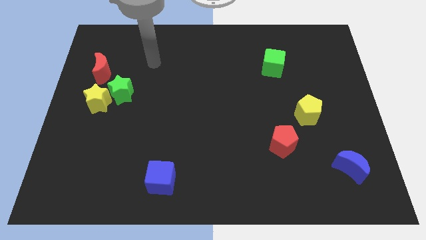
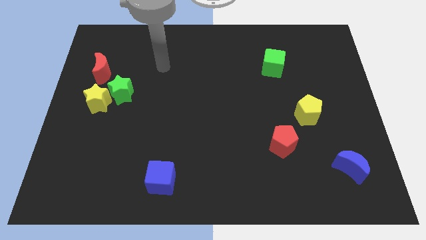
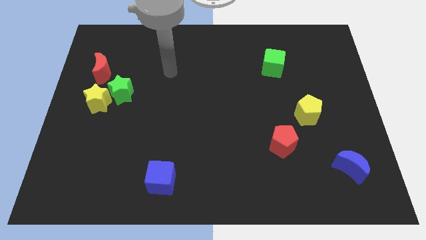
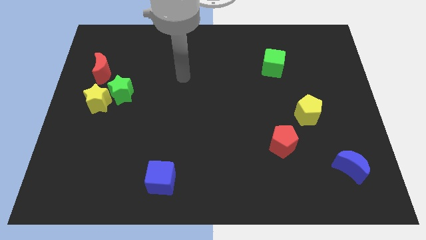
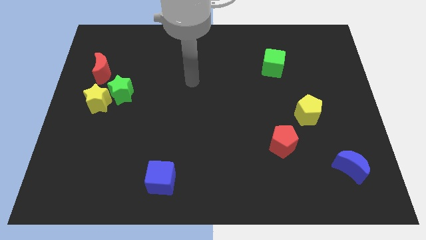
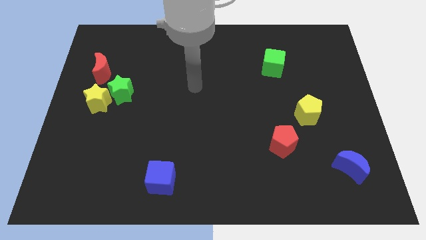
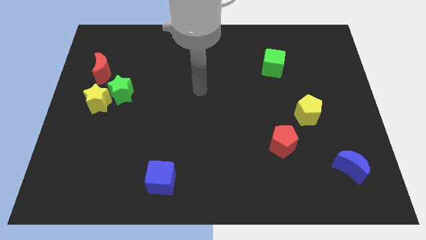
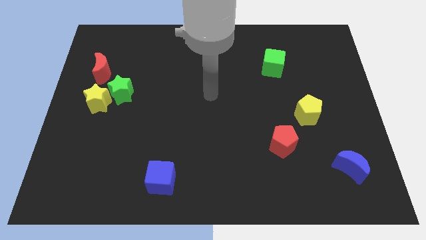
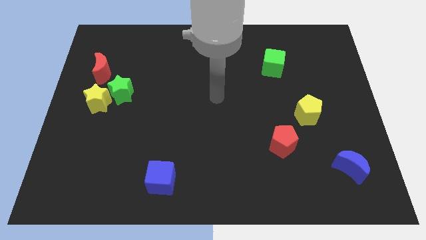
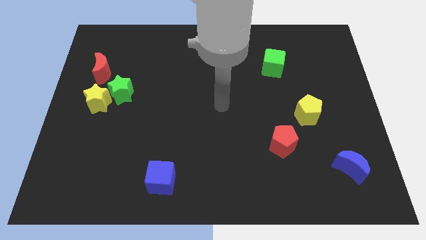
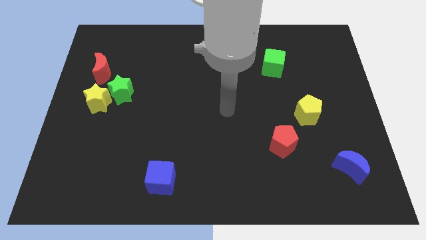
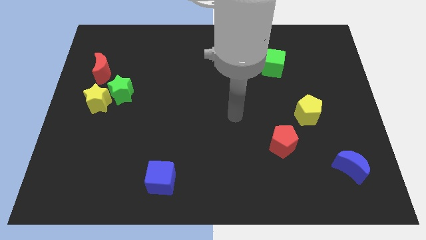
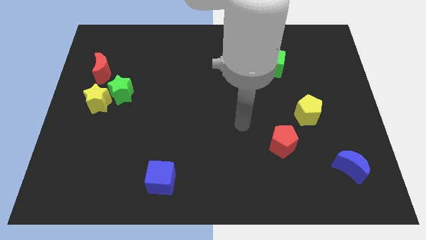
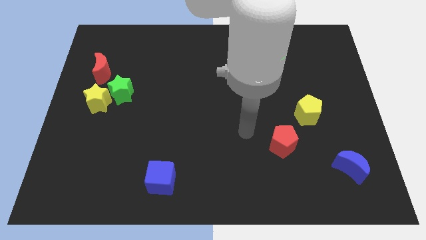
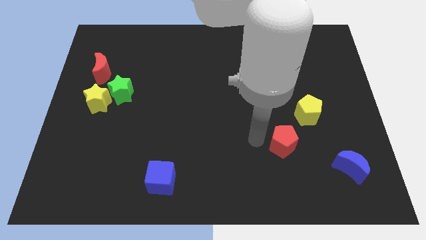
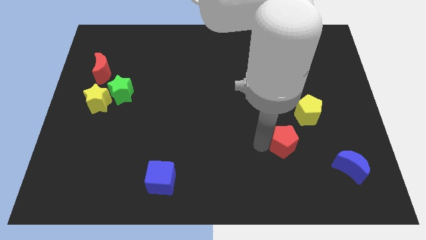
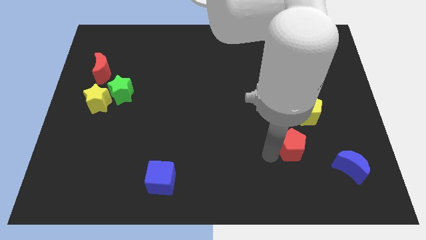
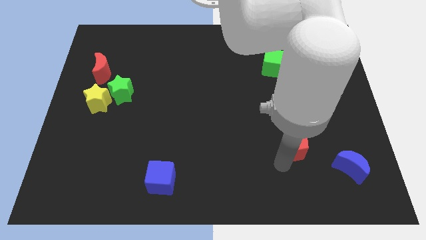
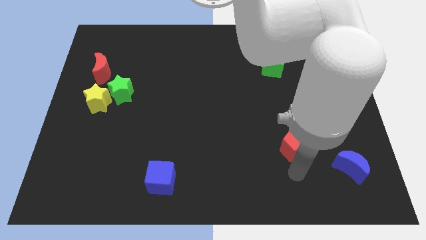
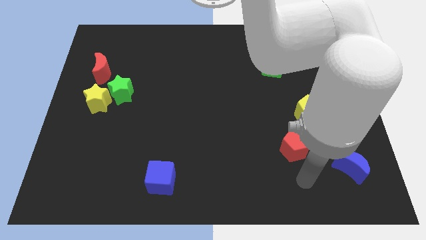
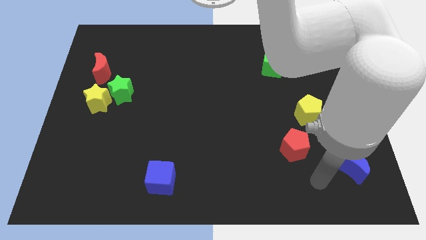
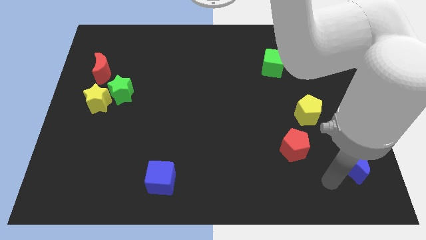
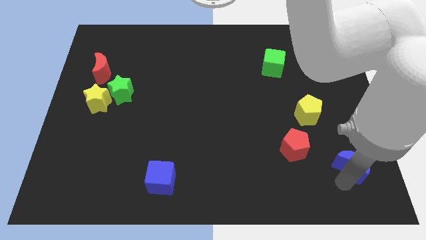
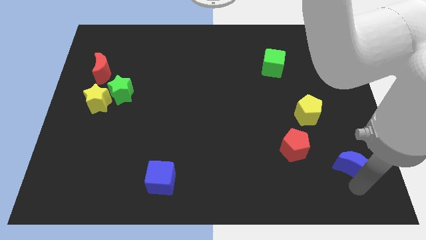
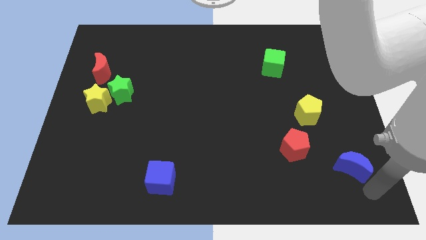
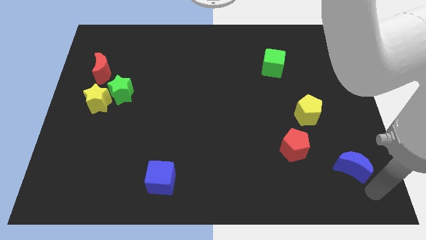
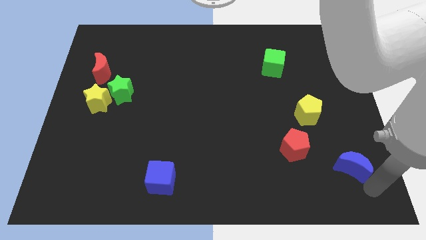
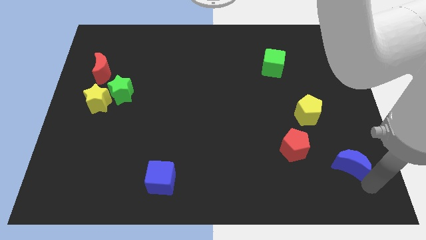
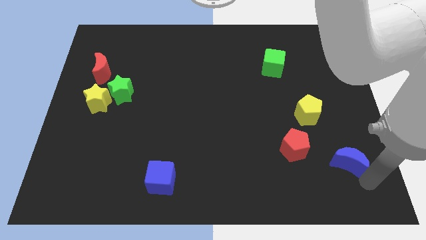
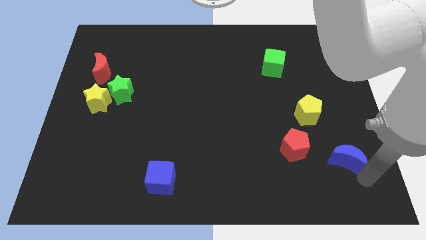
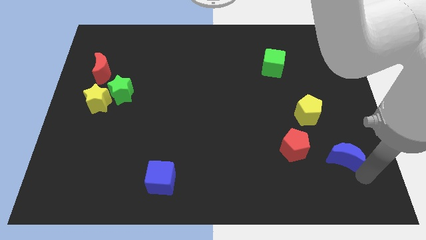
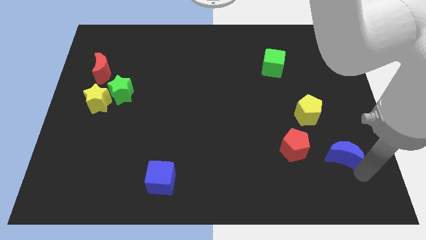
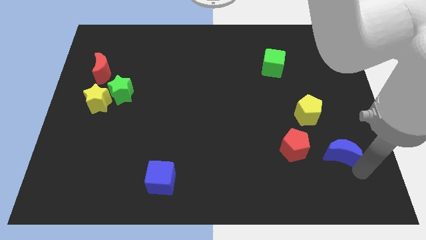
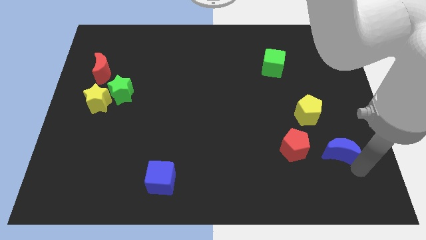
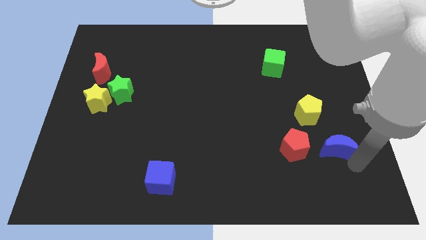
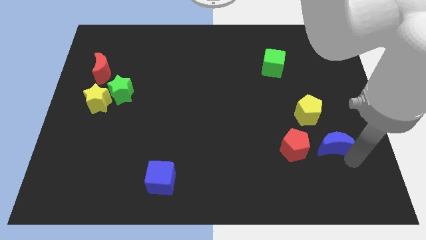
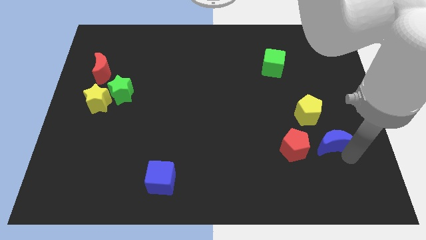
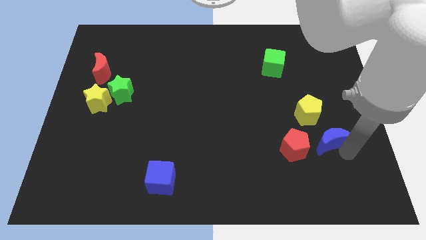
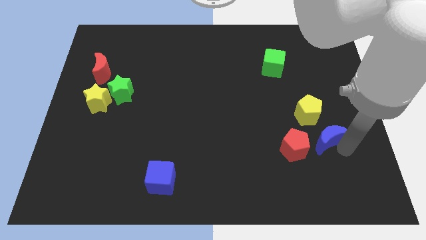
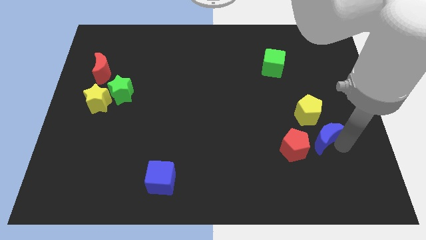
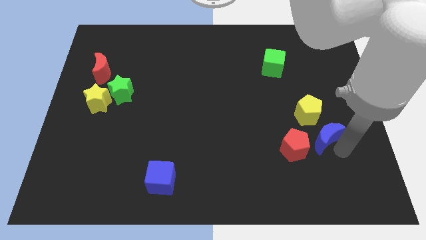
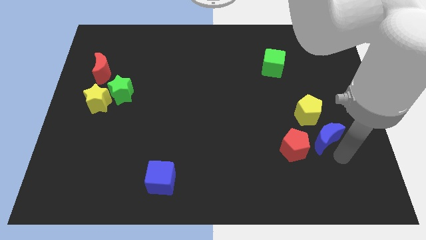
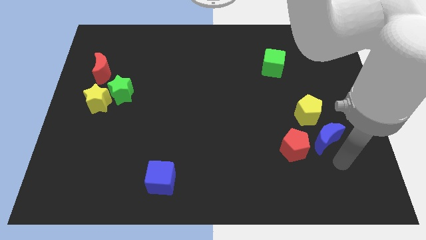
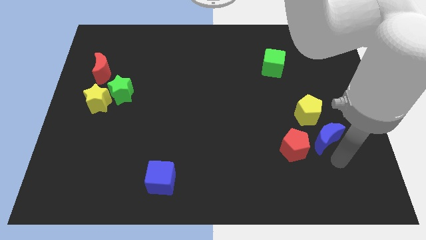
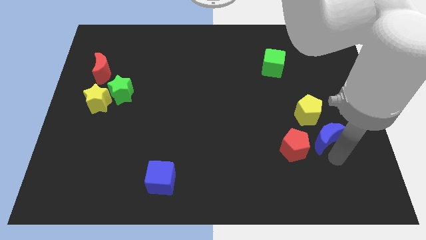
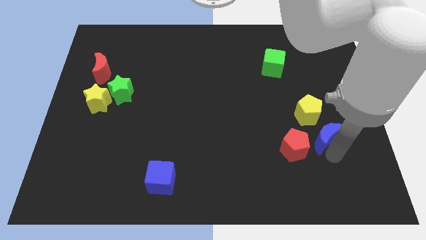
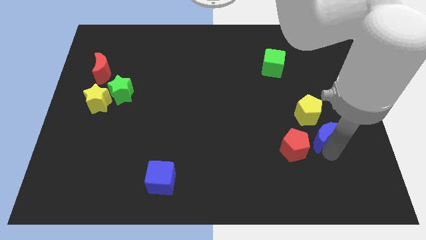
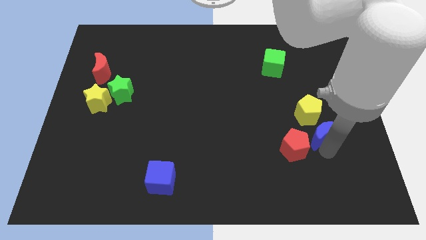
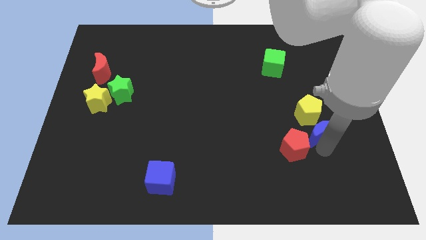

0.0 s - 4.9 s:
move the blue moon to the yellow pentagon

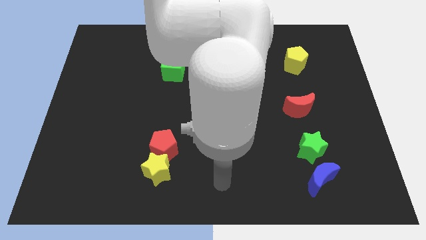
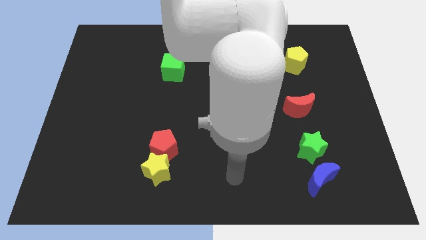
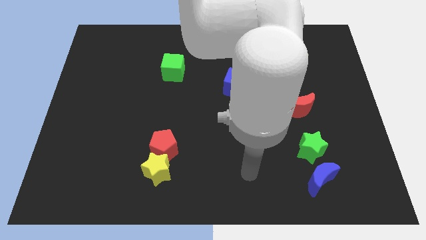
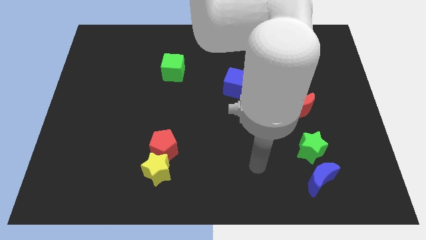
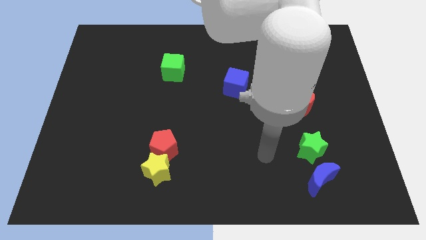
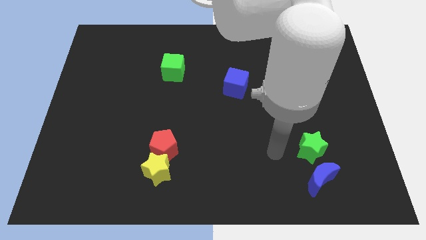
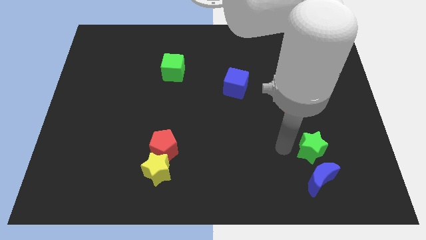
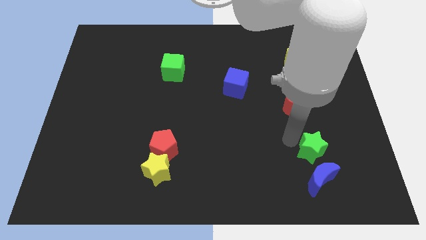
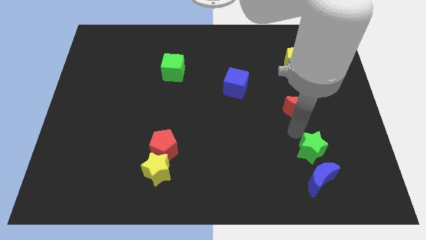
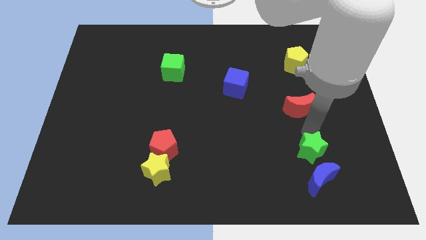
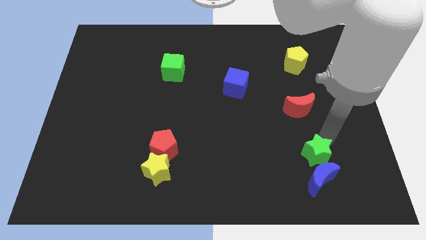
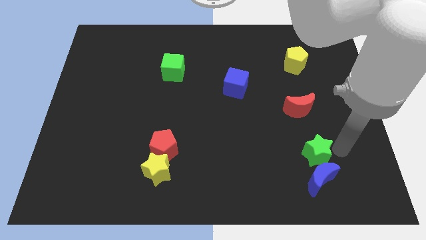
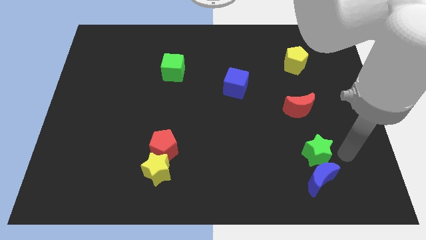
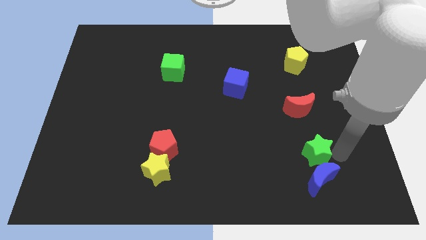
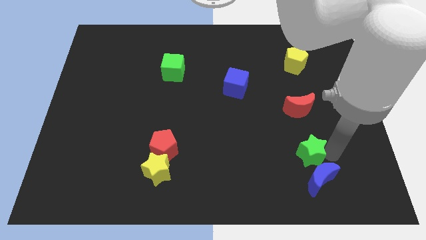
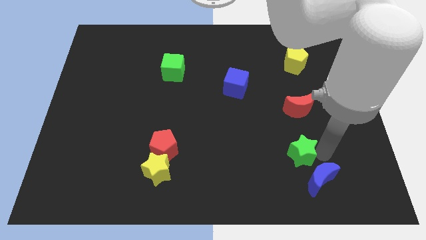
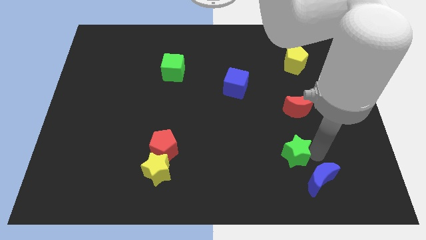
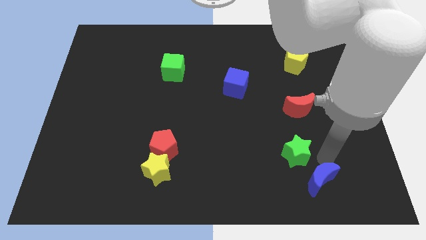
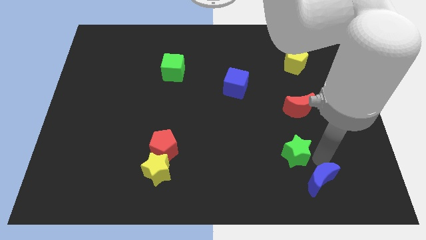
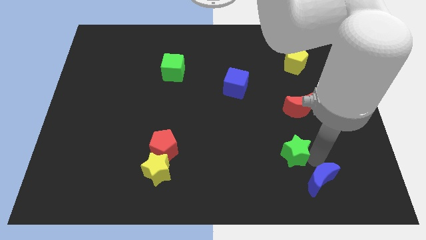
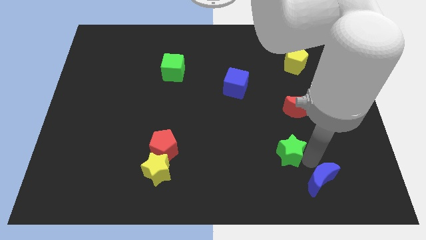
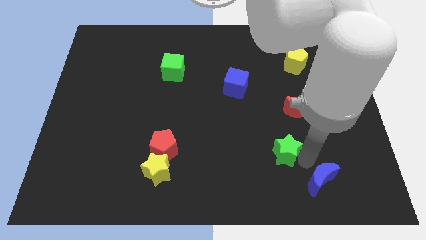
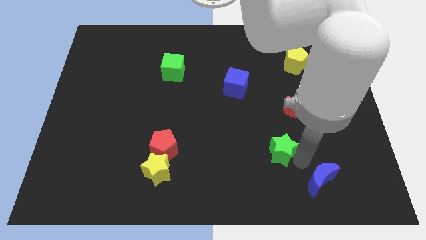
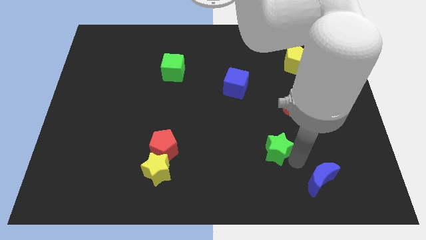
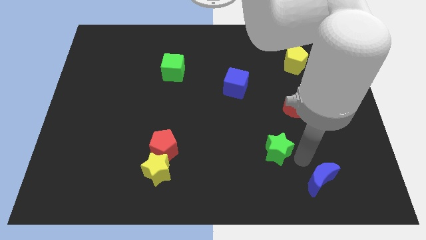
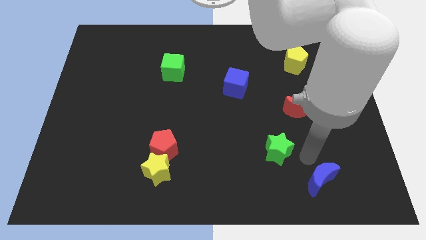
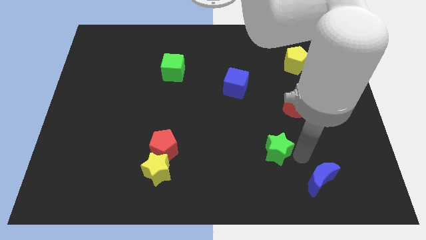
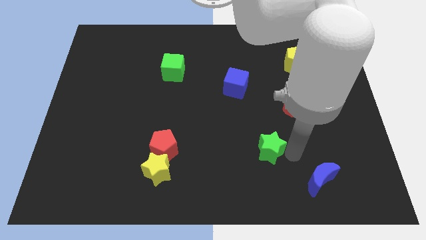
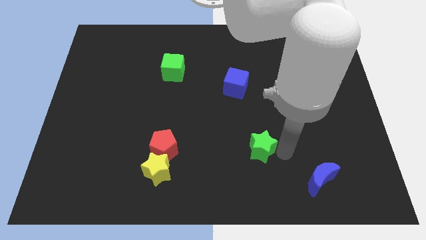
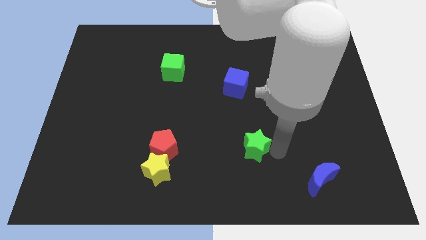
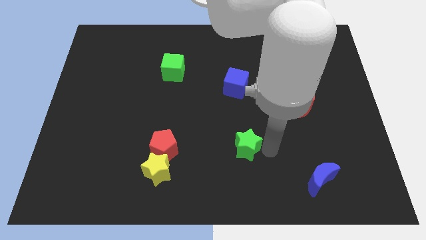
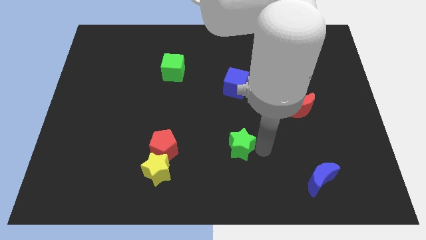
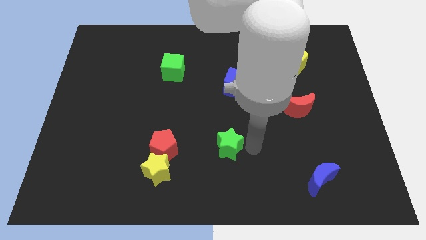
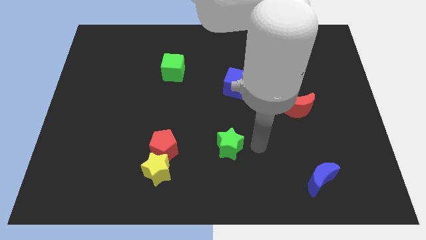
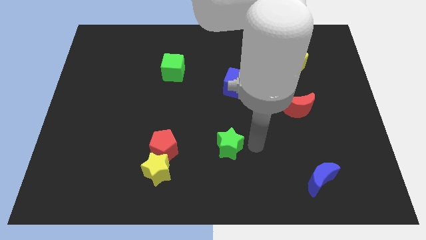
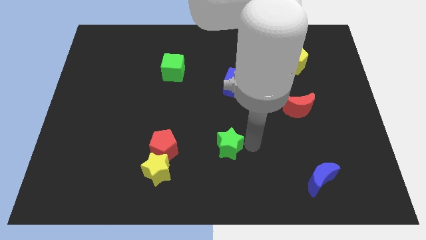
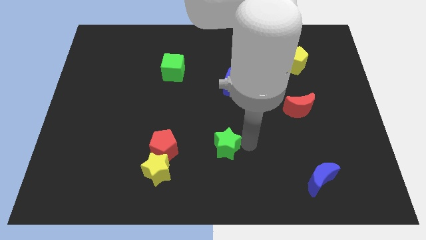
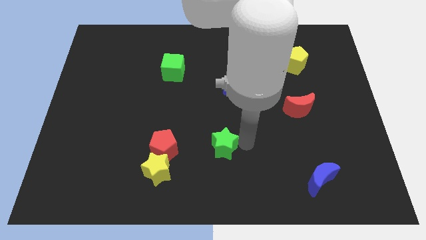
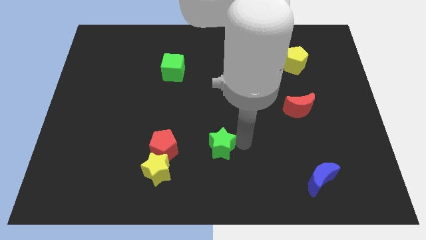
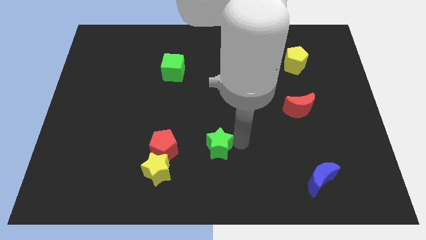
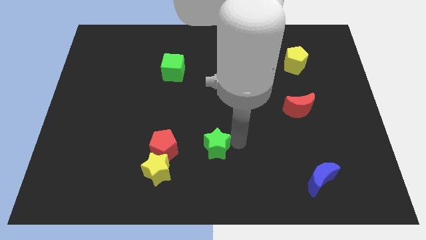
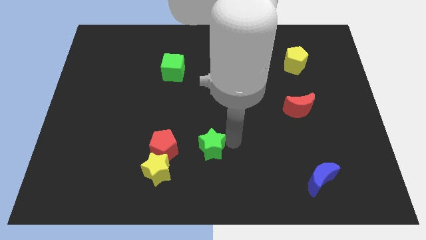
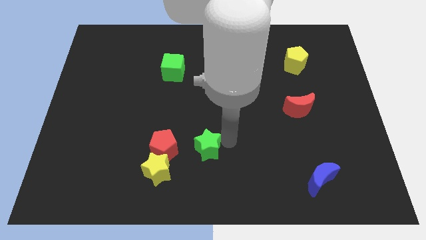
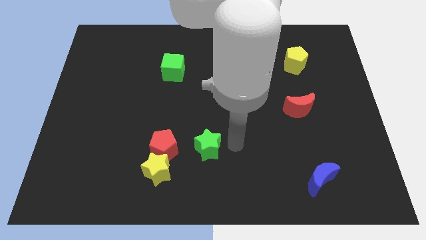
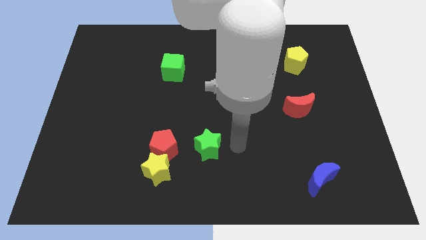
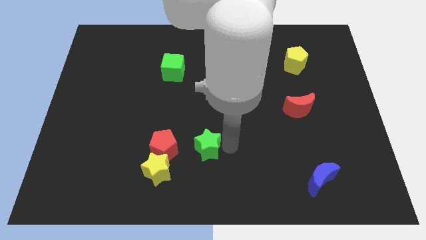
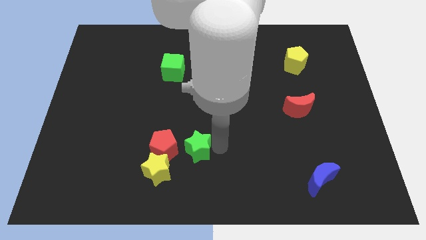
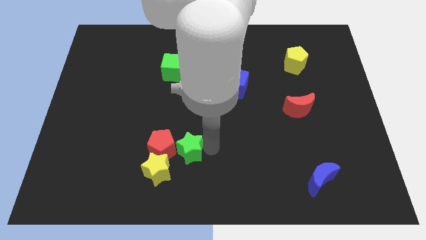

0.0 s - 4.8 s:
move the green star to the red pentagon
